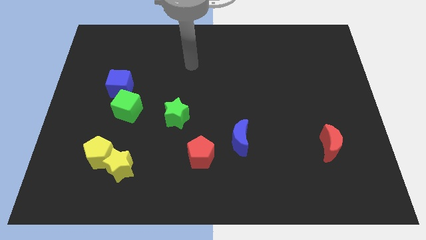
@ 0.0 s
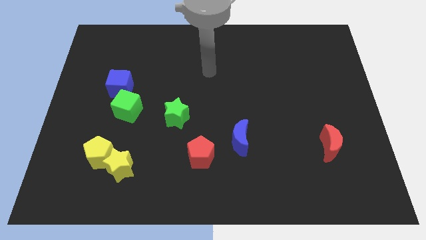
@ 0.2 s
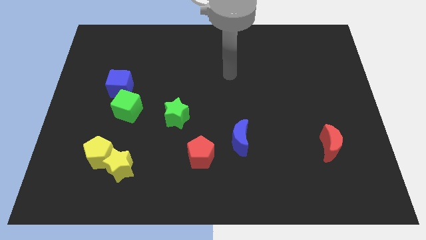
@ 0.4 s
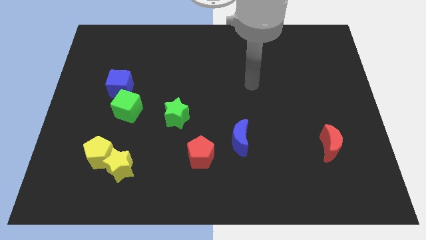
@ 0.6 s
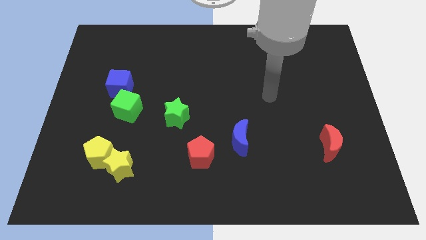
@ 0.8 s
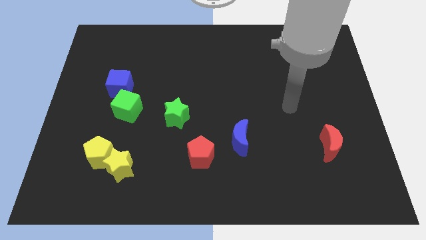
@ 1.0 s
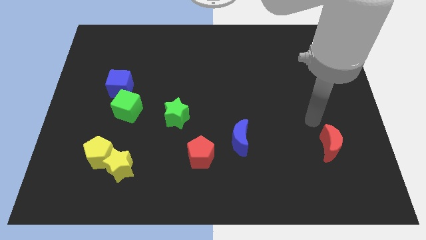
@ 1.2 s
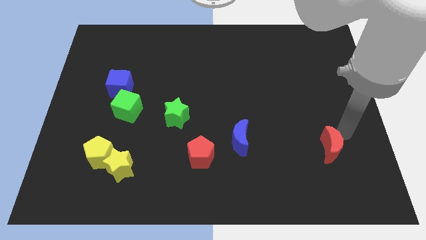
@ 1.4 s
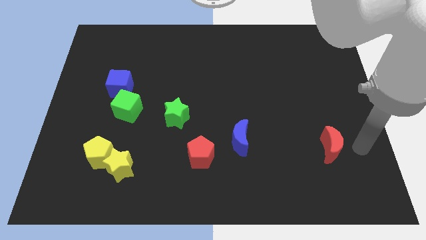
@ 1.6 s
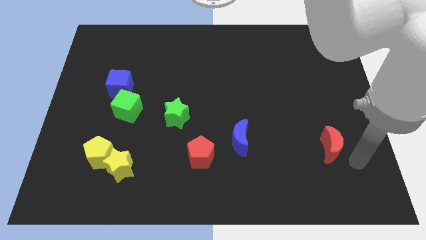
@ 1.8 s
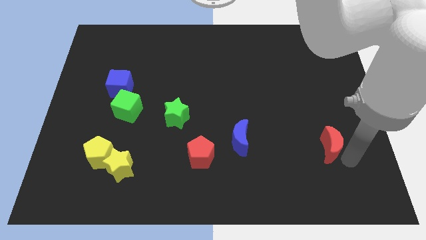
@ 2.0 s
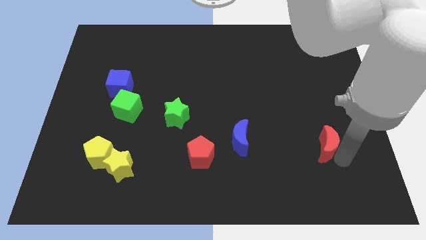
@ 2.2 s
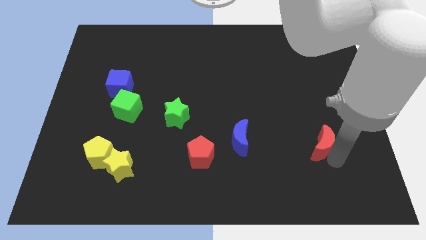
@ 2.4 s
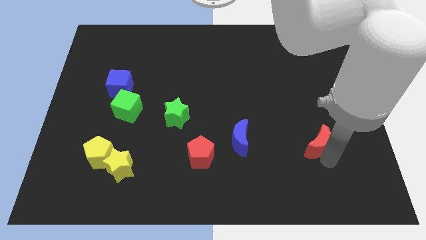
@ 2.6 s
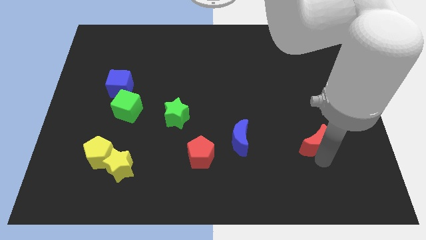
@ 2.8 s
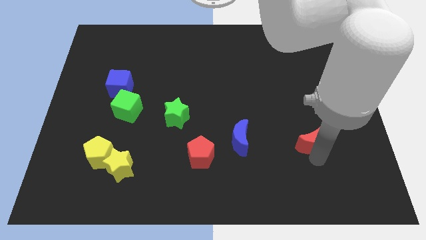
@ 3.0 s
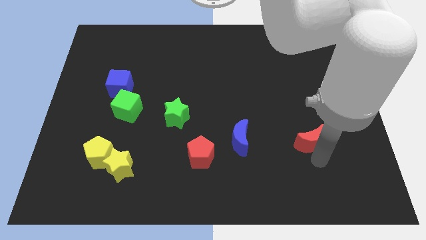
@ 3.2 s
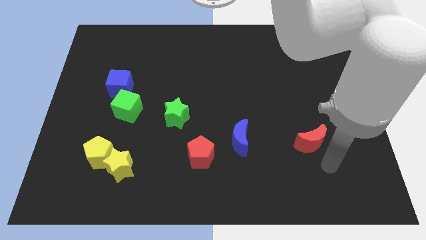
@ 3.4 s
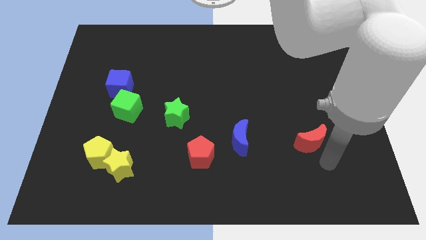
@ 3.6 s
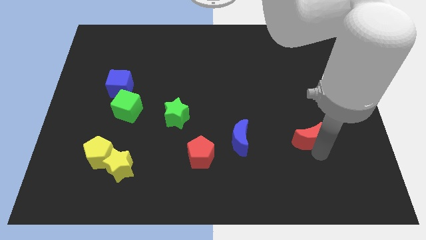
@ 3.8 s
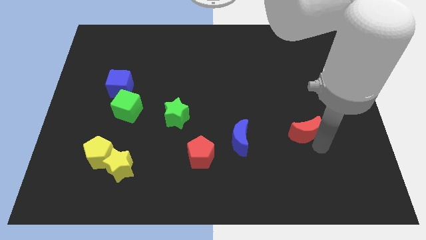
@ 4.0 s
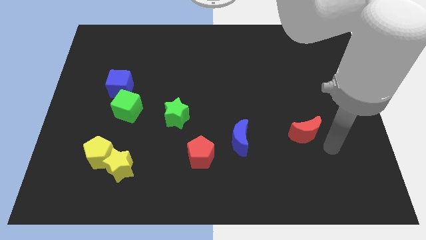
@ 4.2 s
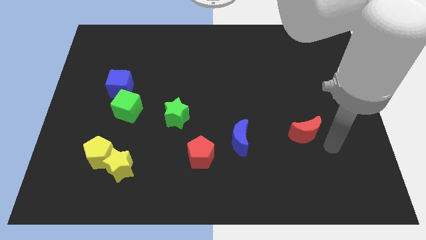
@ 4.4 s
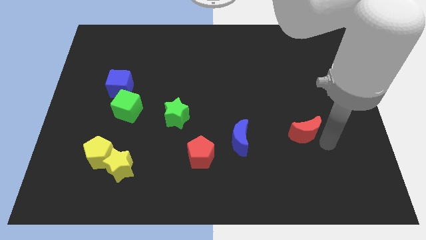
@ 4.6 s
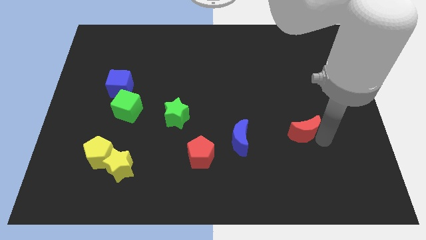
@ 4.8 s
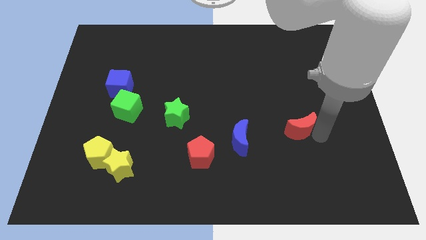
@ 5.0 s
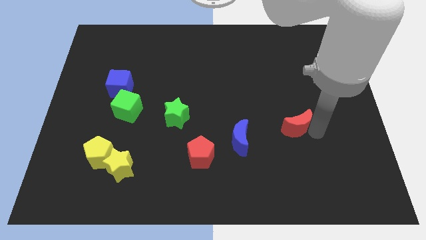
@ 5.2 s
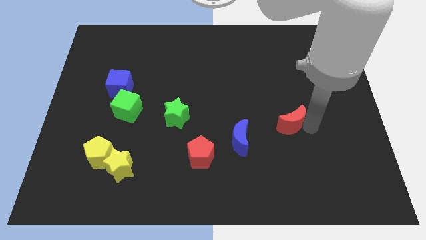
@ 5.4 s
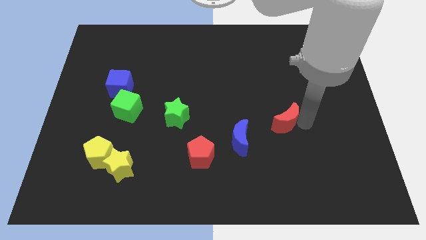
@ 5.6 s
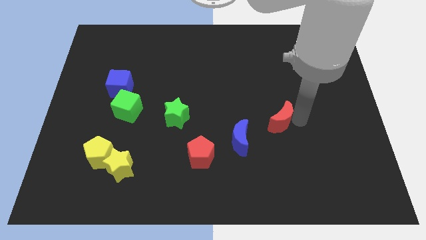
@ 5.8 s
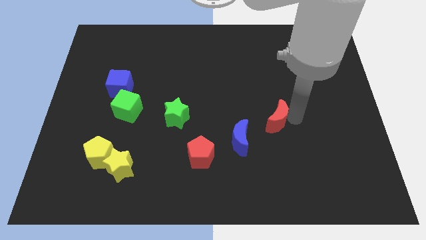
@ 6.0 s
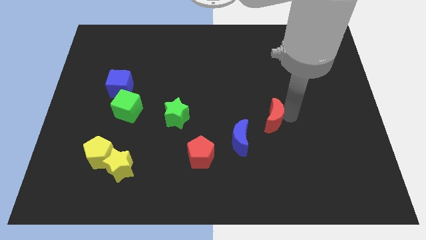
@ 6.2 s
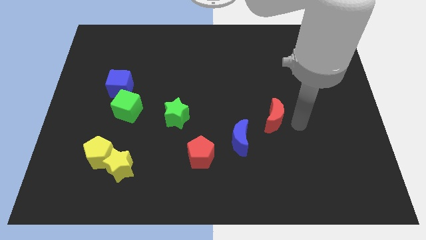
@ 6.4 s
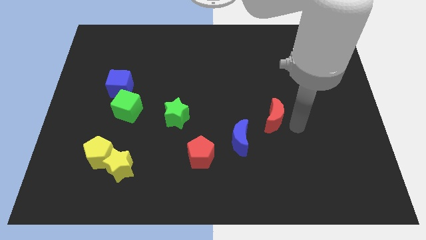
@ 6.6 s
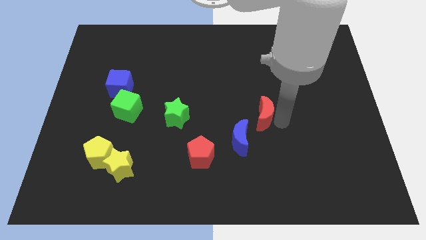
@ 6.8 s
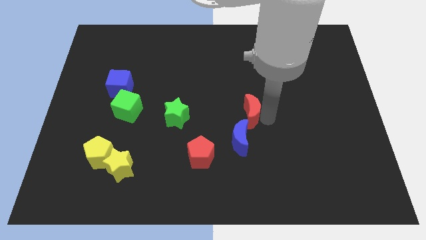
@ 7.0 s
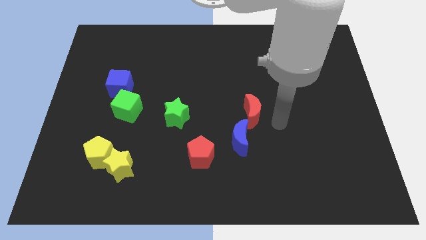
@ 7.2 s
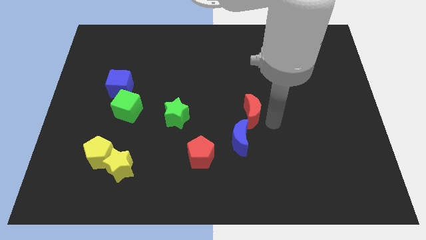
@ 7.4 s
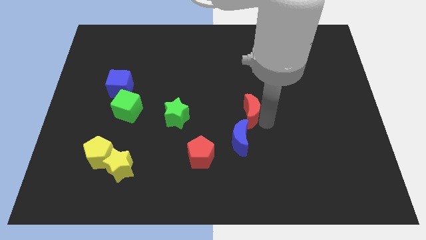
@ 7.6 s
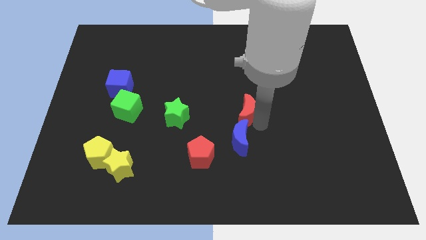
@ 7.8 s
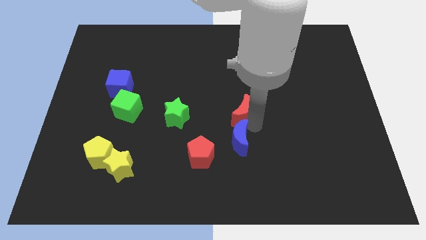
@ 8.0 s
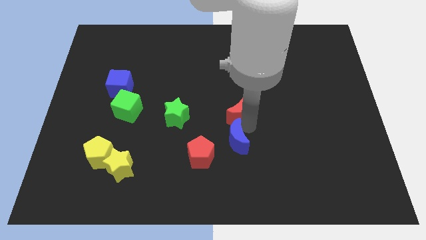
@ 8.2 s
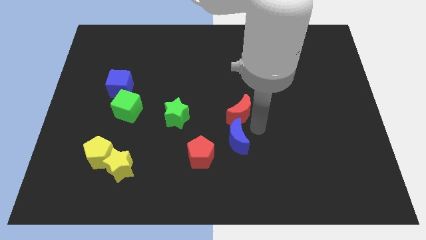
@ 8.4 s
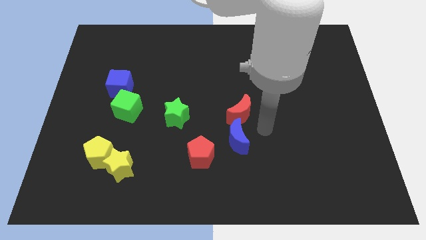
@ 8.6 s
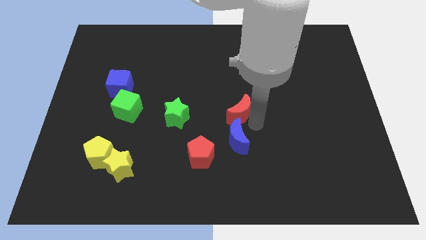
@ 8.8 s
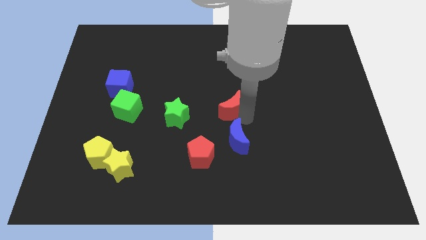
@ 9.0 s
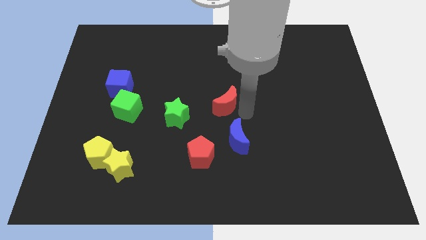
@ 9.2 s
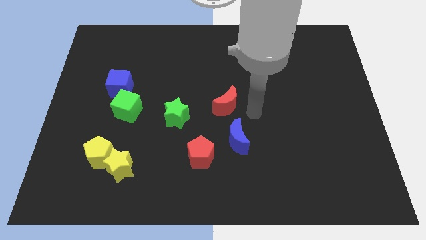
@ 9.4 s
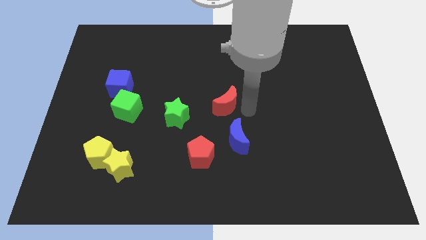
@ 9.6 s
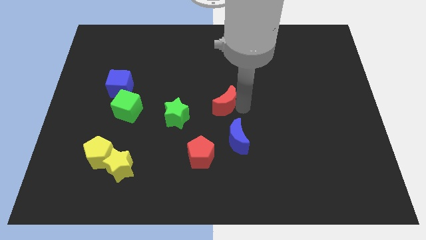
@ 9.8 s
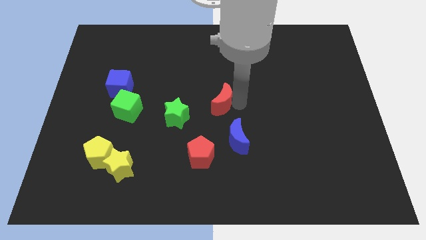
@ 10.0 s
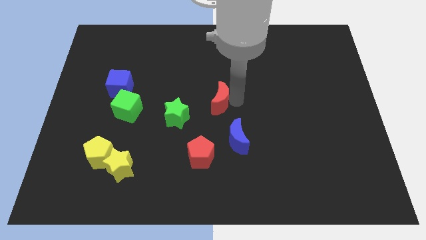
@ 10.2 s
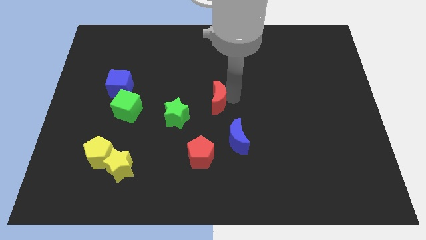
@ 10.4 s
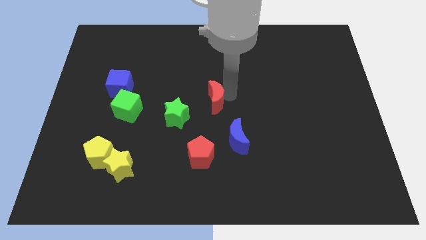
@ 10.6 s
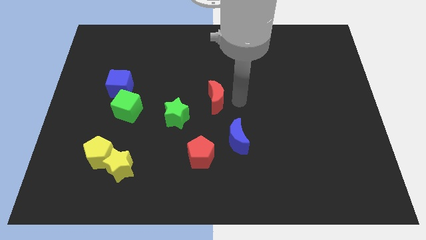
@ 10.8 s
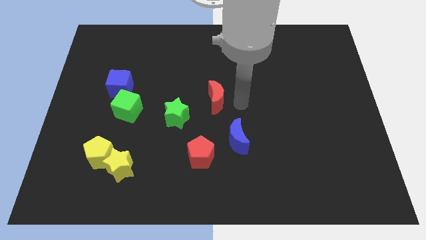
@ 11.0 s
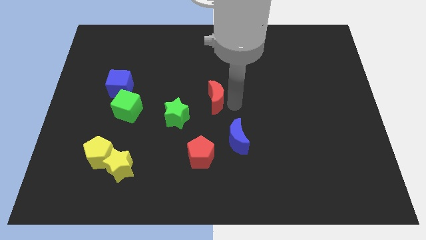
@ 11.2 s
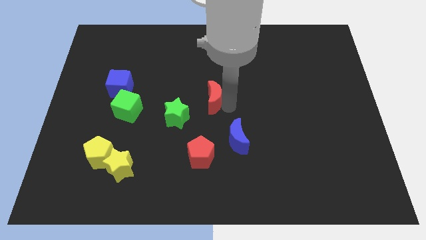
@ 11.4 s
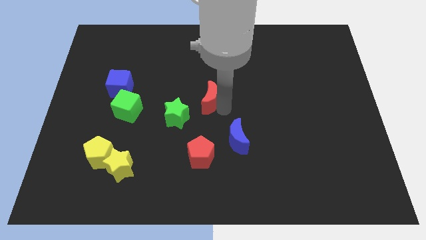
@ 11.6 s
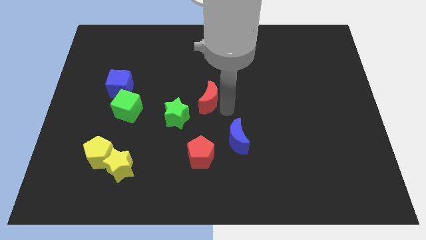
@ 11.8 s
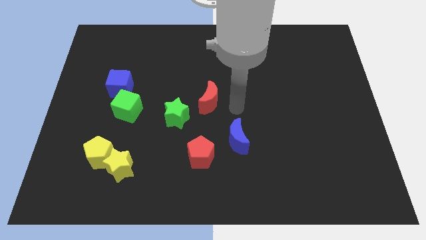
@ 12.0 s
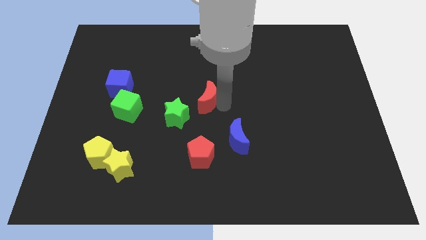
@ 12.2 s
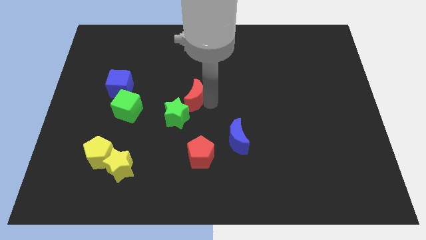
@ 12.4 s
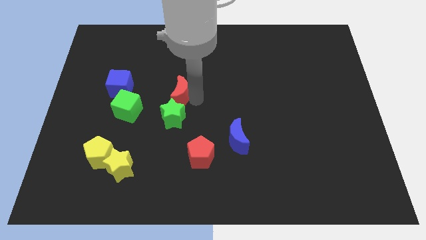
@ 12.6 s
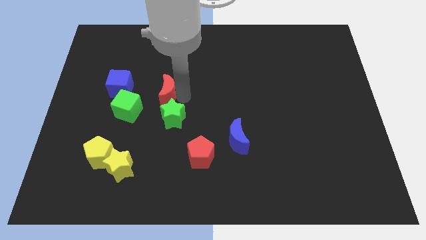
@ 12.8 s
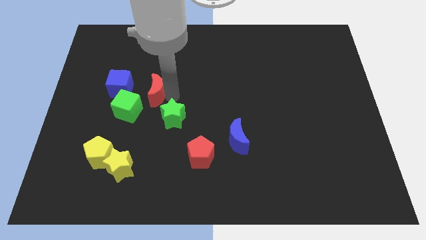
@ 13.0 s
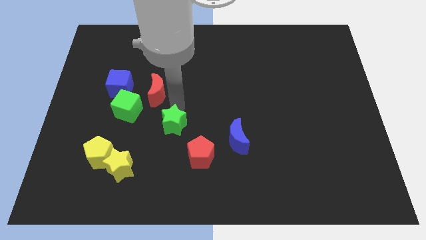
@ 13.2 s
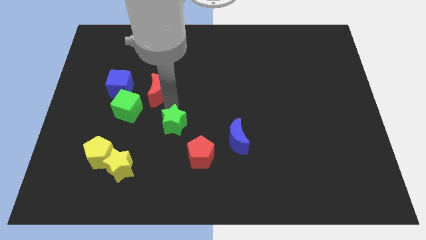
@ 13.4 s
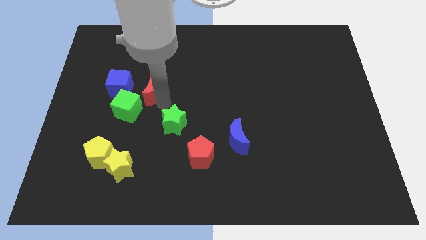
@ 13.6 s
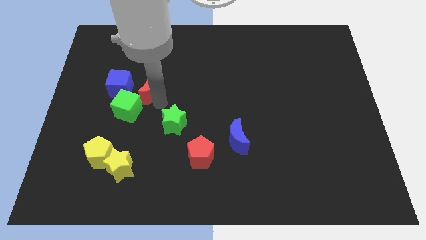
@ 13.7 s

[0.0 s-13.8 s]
slide the red moon to the top of the green cube

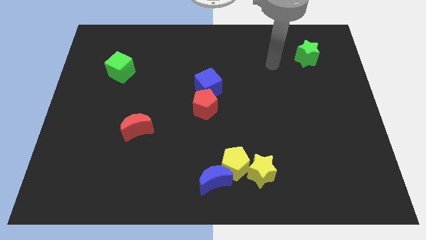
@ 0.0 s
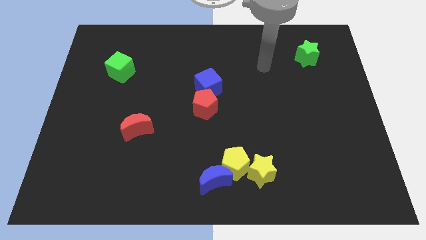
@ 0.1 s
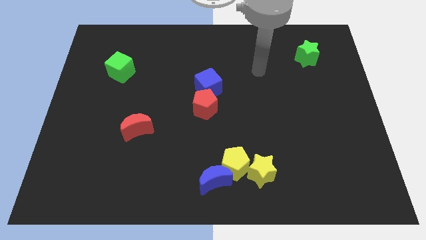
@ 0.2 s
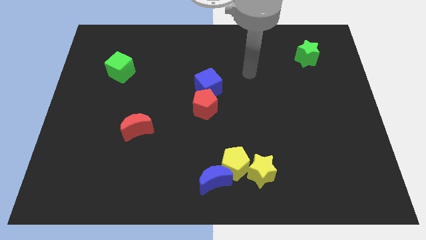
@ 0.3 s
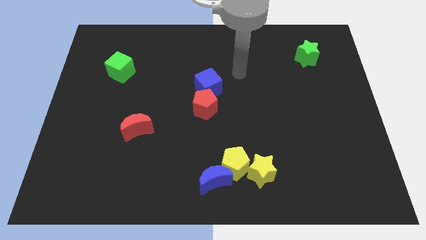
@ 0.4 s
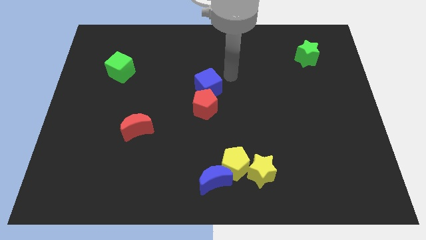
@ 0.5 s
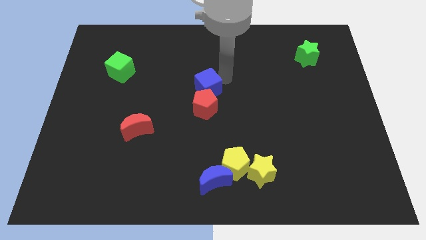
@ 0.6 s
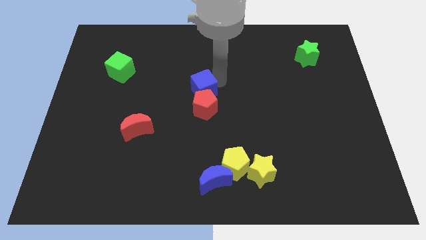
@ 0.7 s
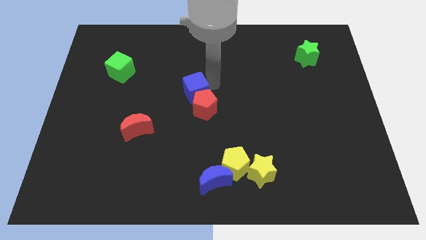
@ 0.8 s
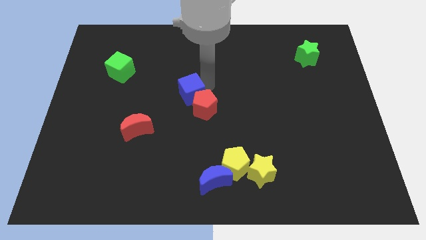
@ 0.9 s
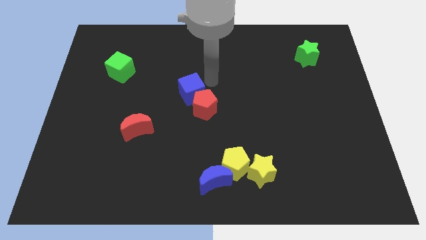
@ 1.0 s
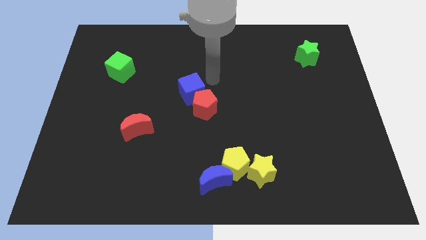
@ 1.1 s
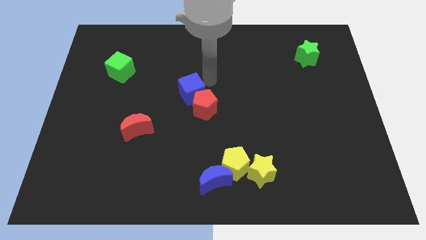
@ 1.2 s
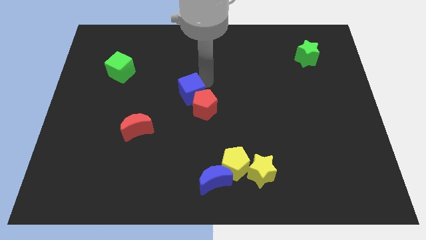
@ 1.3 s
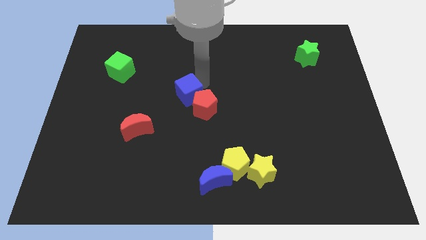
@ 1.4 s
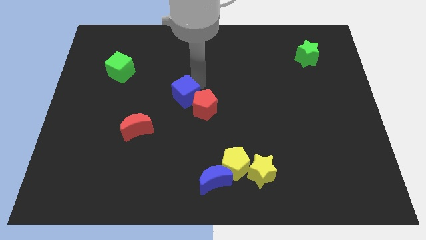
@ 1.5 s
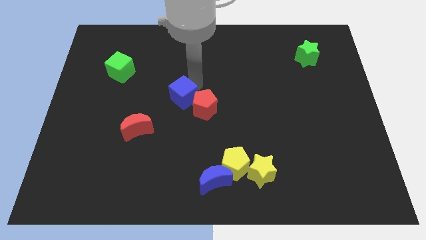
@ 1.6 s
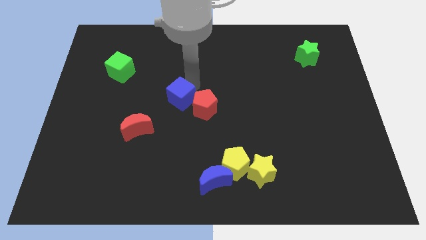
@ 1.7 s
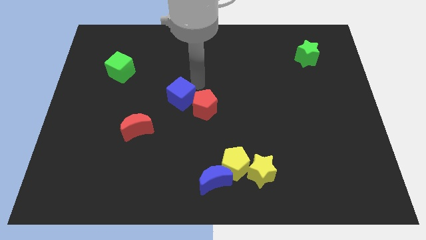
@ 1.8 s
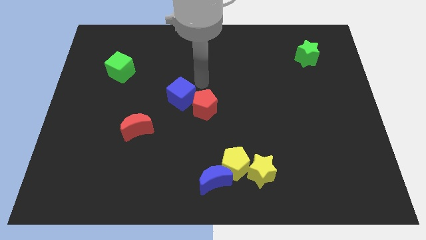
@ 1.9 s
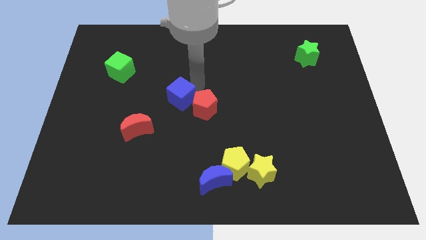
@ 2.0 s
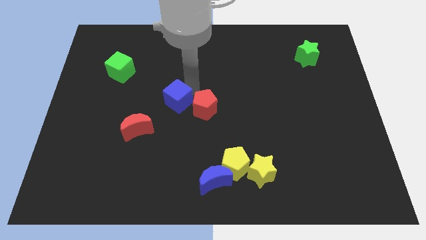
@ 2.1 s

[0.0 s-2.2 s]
slide the blue cube to the top right side of the red moon
